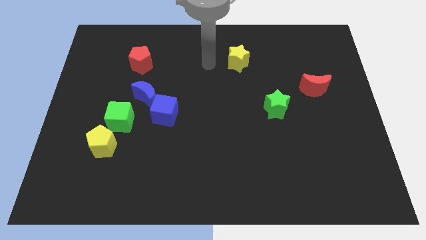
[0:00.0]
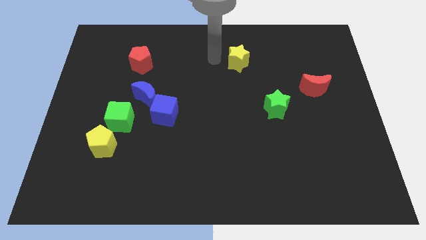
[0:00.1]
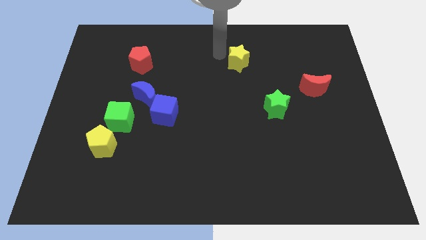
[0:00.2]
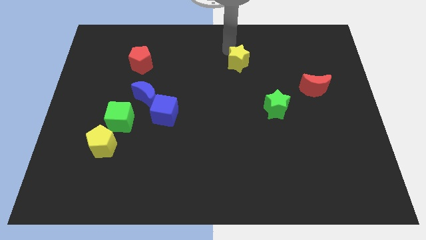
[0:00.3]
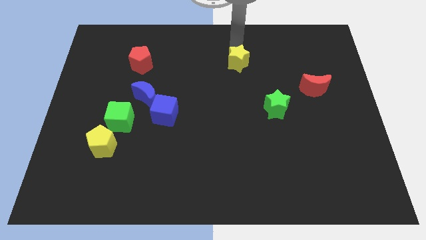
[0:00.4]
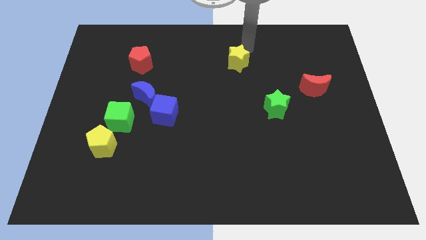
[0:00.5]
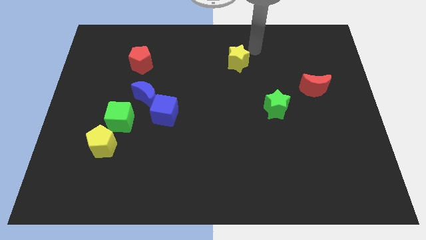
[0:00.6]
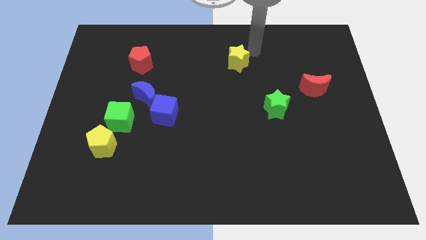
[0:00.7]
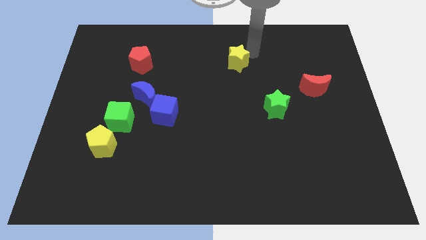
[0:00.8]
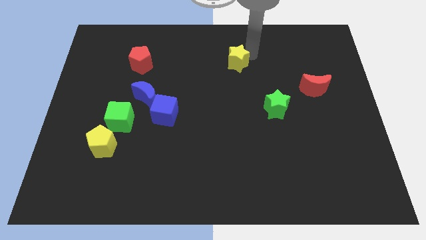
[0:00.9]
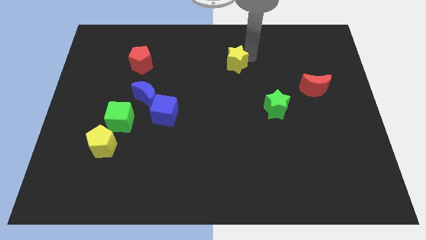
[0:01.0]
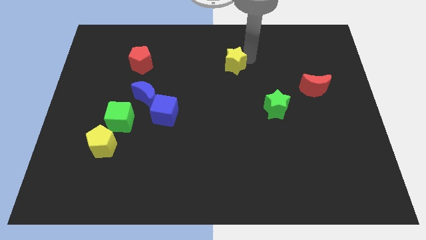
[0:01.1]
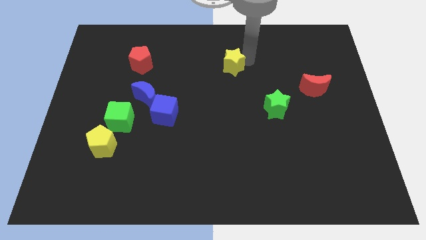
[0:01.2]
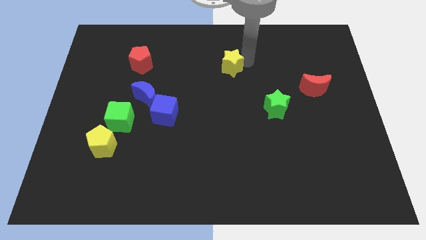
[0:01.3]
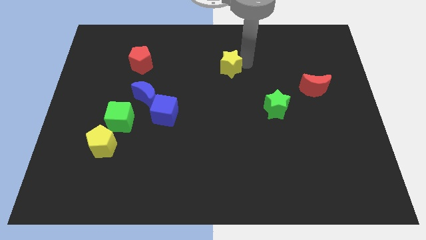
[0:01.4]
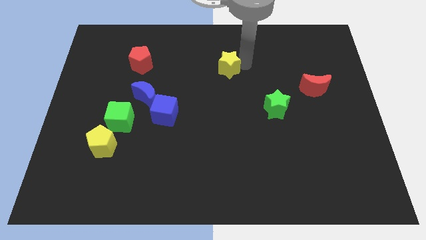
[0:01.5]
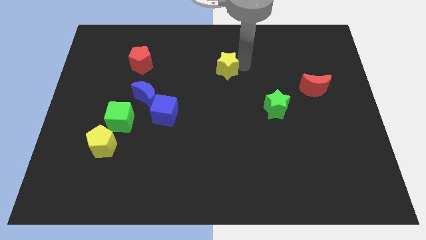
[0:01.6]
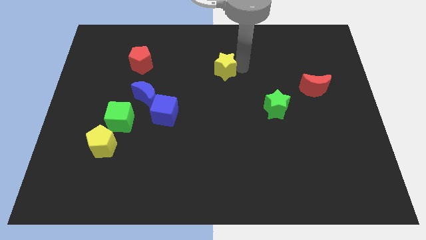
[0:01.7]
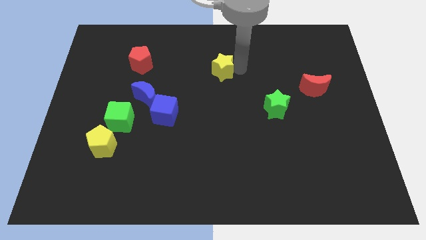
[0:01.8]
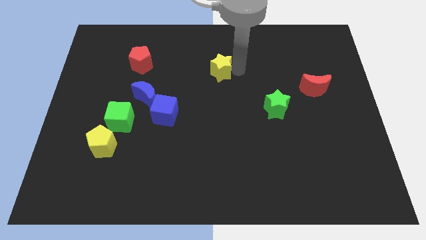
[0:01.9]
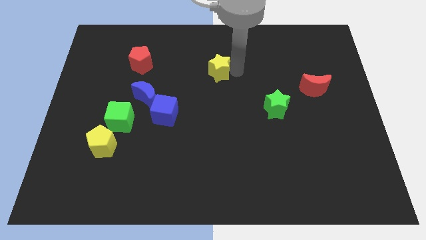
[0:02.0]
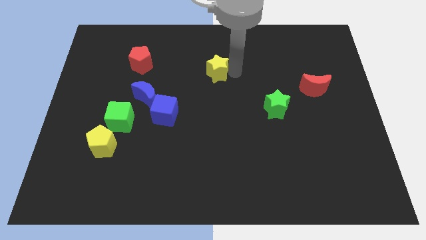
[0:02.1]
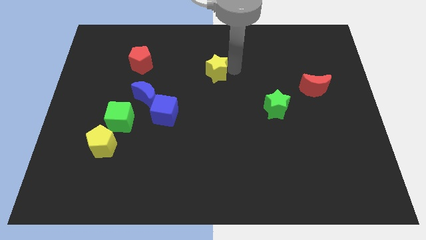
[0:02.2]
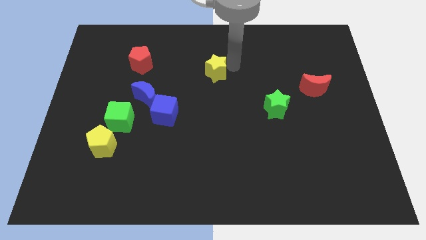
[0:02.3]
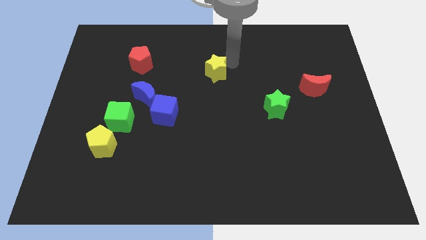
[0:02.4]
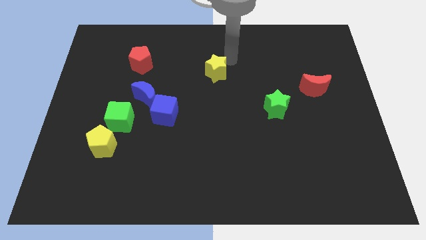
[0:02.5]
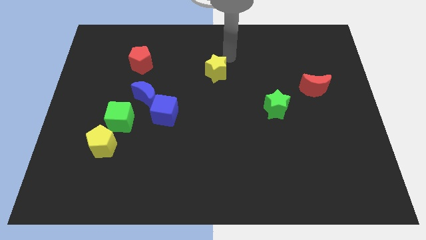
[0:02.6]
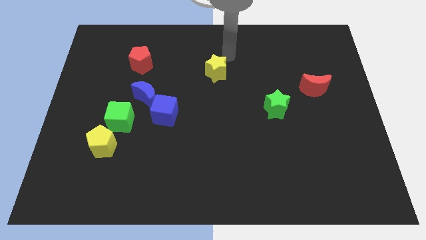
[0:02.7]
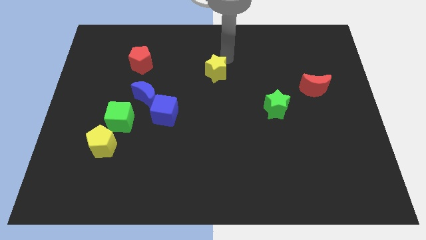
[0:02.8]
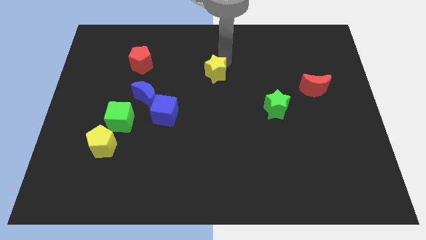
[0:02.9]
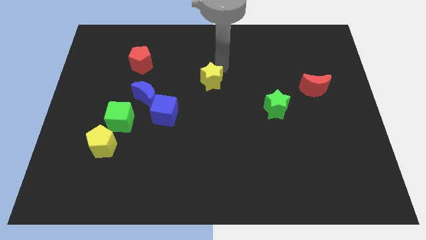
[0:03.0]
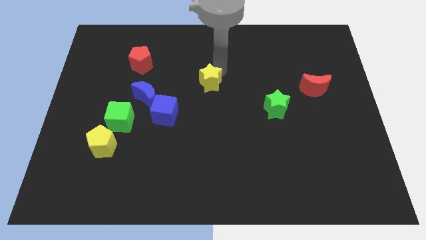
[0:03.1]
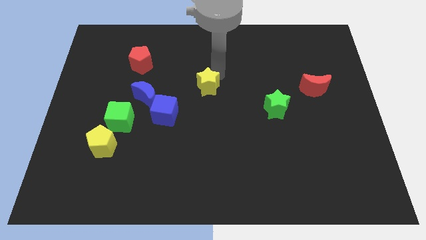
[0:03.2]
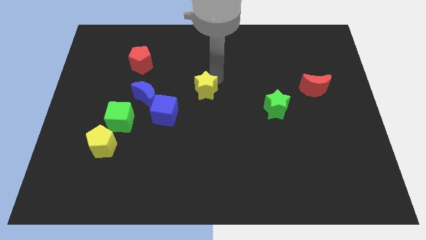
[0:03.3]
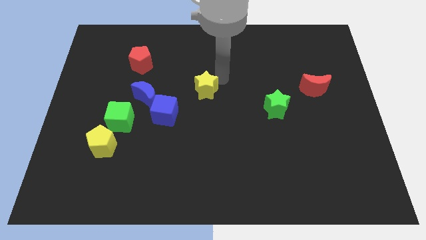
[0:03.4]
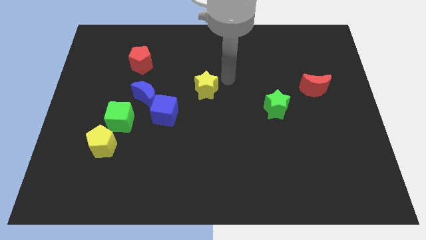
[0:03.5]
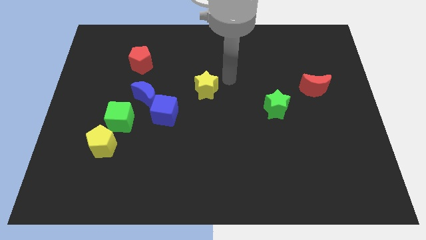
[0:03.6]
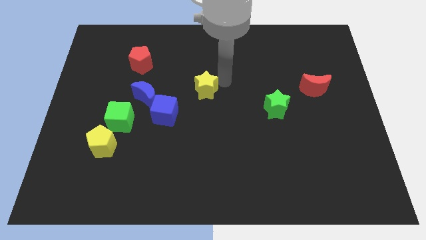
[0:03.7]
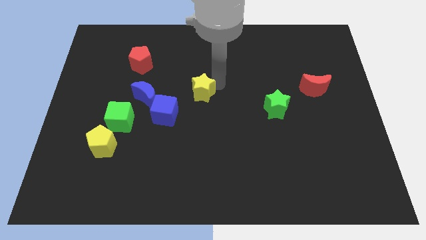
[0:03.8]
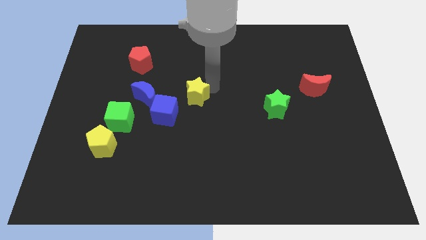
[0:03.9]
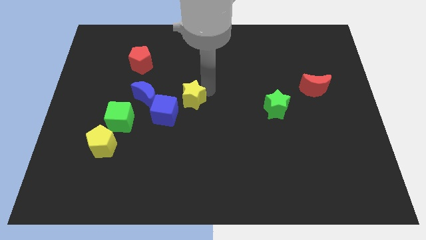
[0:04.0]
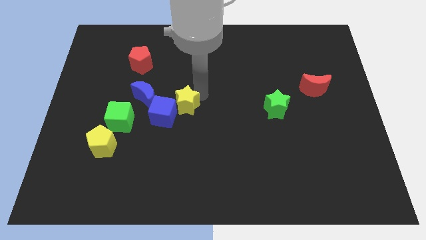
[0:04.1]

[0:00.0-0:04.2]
push the yellow star next to the blue cube

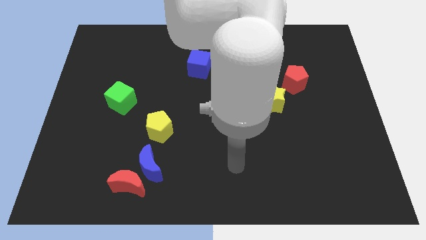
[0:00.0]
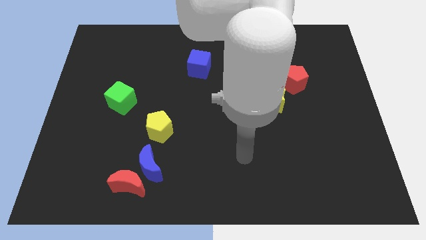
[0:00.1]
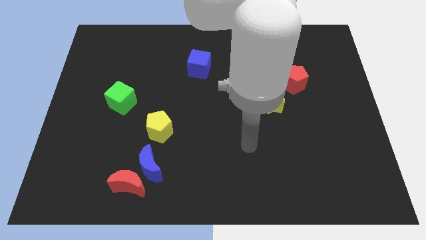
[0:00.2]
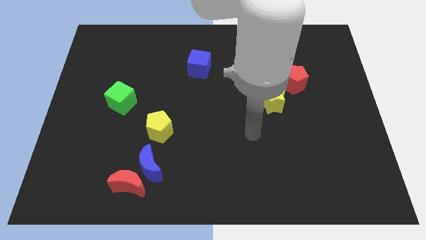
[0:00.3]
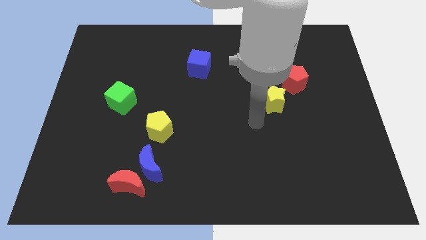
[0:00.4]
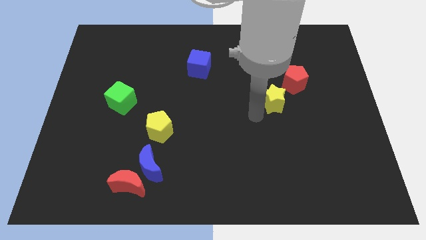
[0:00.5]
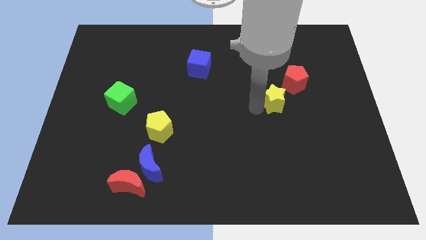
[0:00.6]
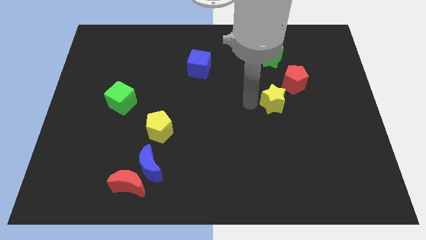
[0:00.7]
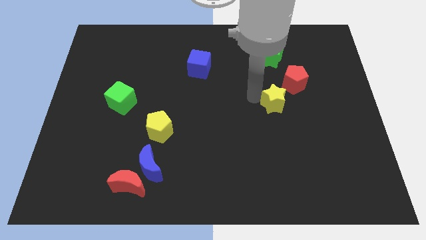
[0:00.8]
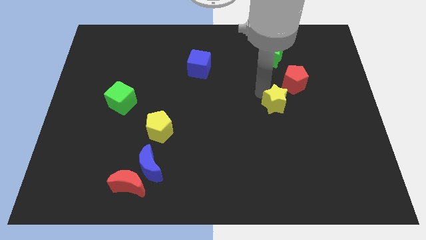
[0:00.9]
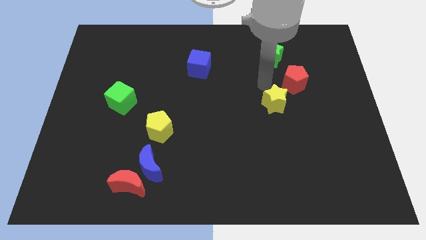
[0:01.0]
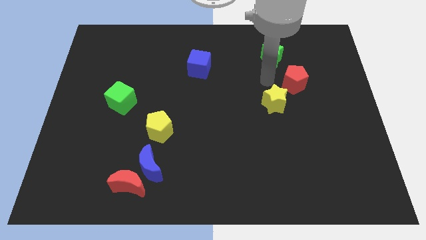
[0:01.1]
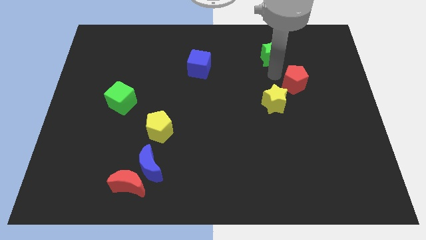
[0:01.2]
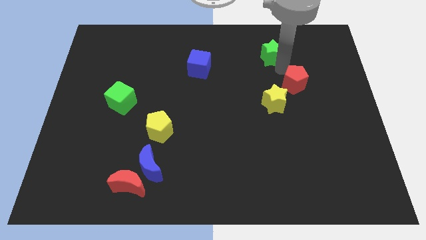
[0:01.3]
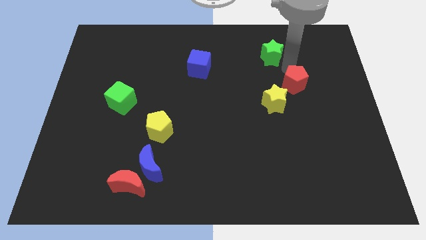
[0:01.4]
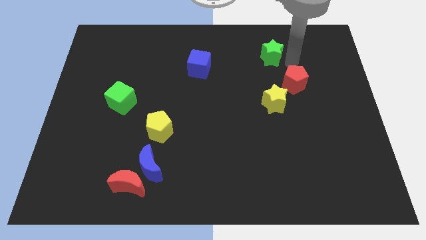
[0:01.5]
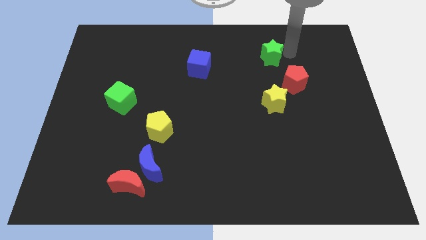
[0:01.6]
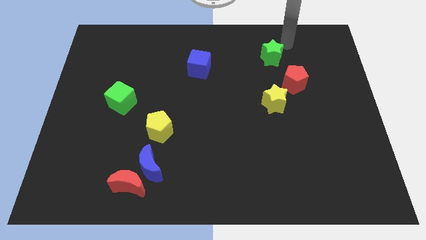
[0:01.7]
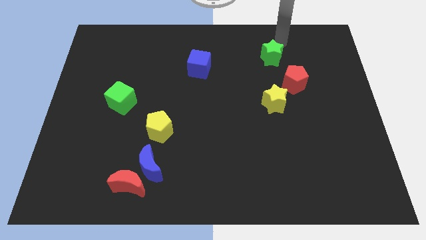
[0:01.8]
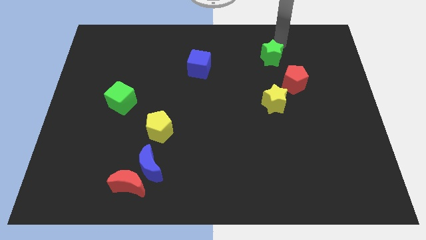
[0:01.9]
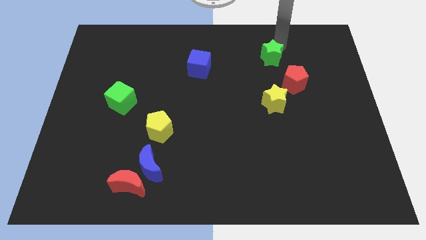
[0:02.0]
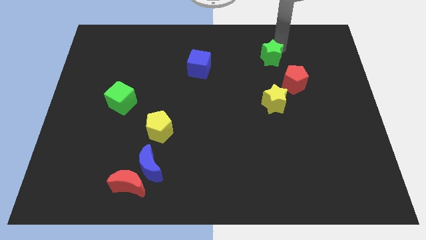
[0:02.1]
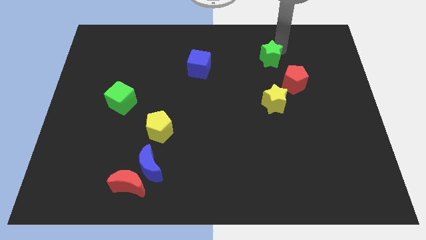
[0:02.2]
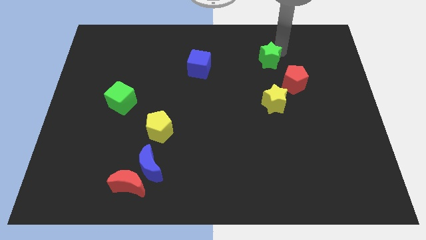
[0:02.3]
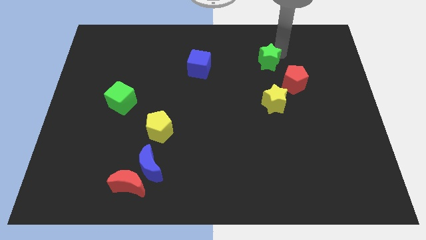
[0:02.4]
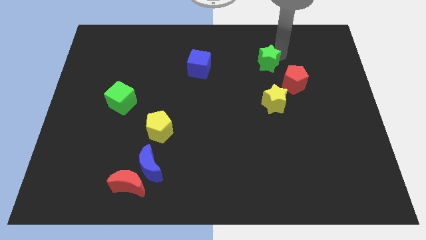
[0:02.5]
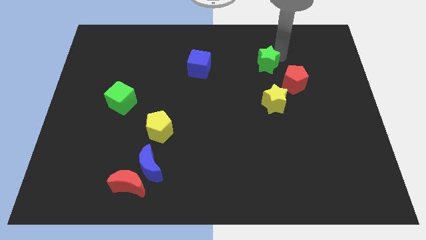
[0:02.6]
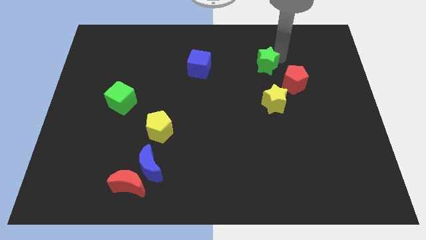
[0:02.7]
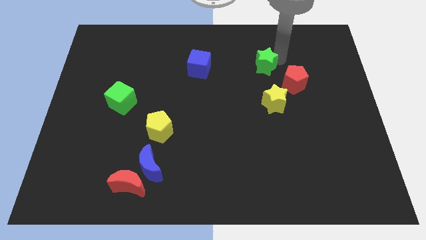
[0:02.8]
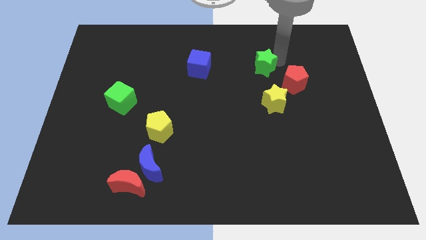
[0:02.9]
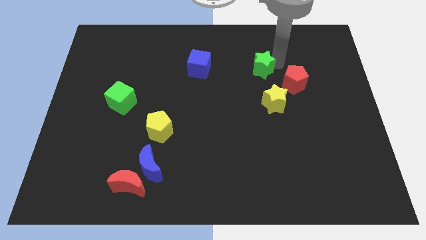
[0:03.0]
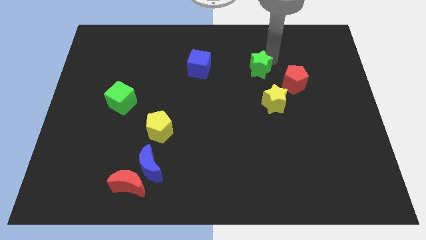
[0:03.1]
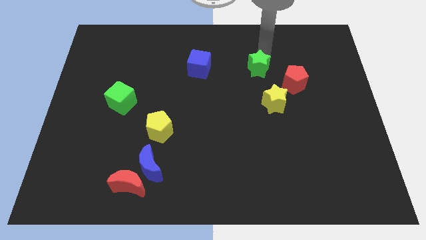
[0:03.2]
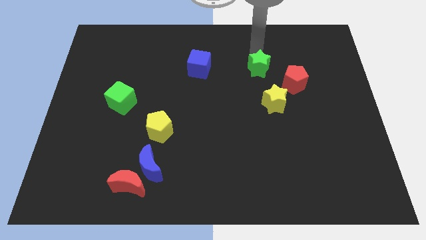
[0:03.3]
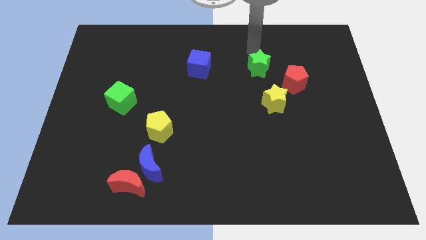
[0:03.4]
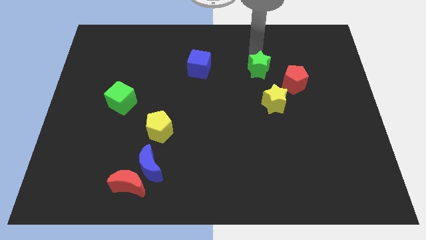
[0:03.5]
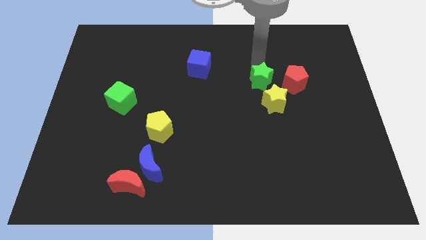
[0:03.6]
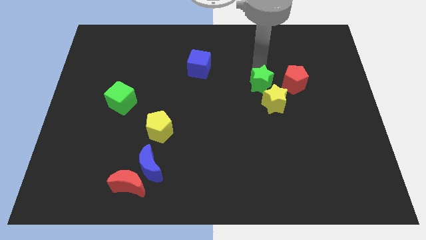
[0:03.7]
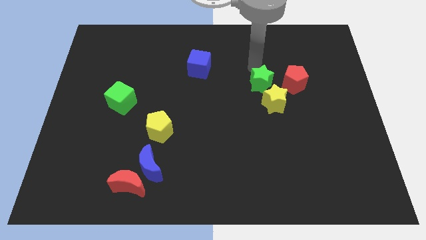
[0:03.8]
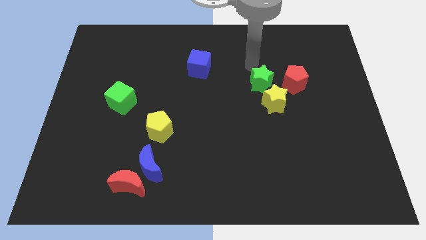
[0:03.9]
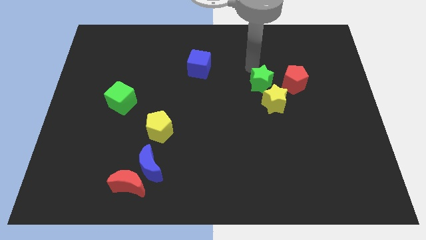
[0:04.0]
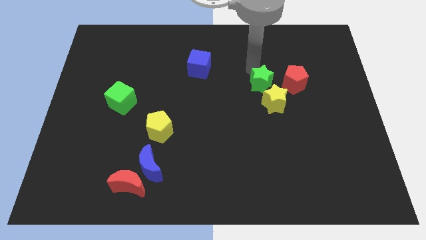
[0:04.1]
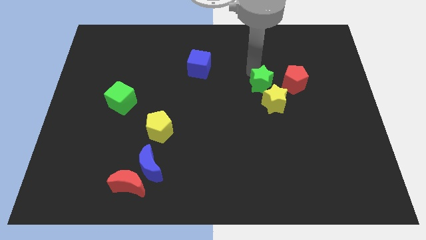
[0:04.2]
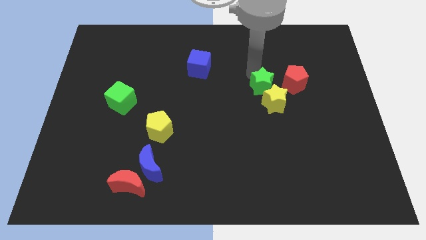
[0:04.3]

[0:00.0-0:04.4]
put the green star next to the yellow star
